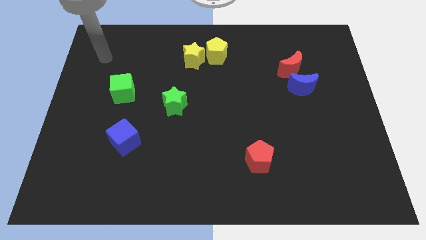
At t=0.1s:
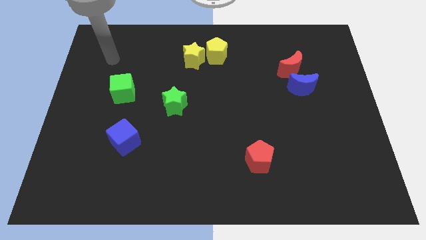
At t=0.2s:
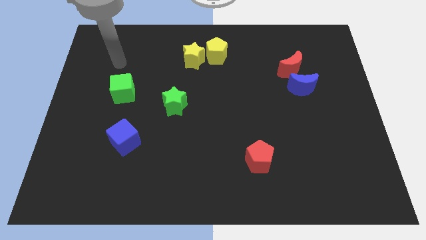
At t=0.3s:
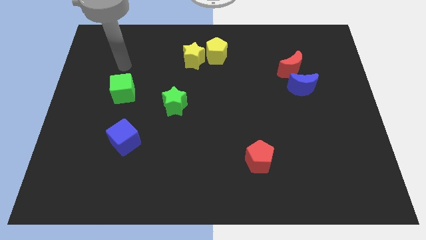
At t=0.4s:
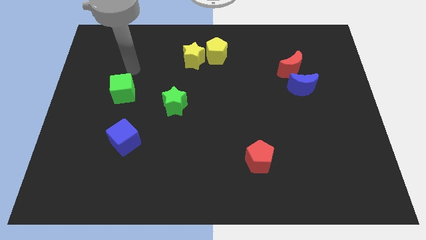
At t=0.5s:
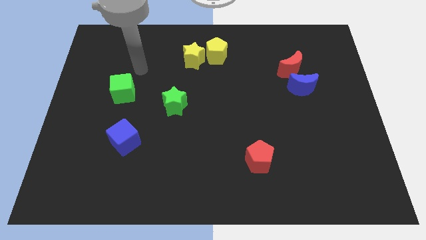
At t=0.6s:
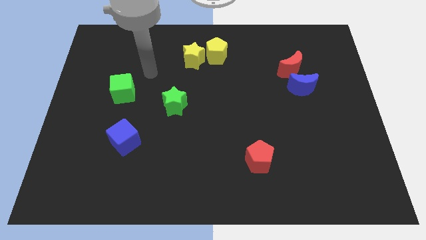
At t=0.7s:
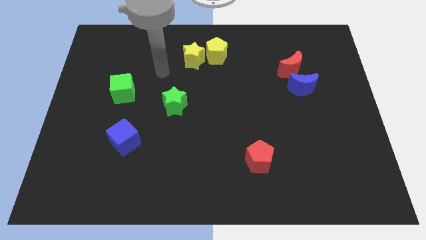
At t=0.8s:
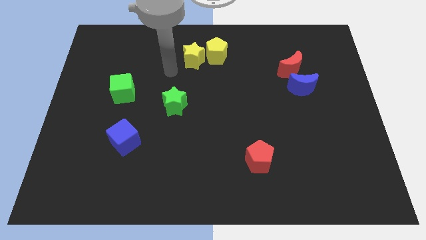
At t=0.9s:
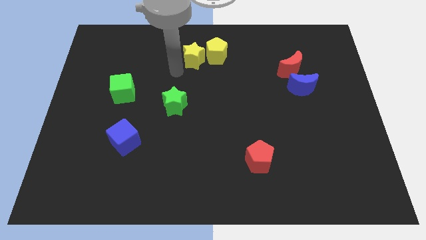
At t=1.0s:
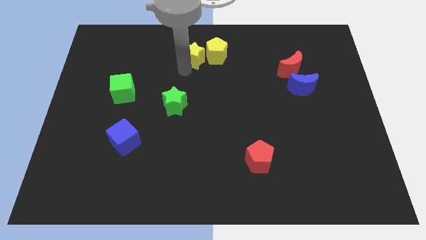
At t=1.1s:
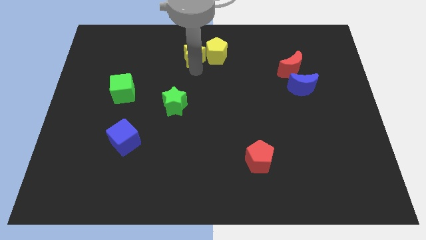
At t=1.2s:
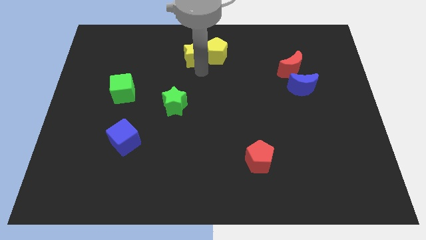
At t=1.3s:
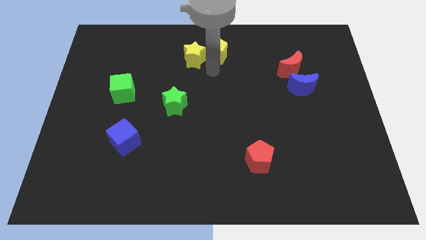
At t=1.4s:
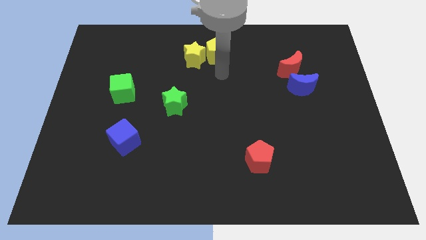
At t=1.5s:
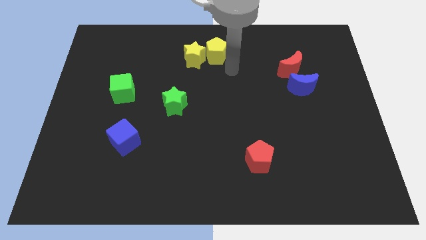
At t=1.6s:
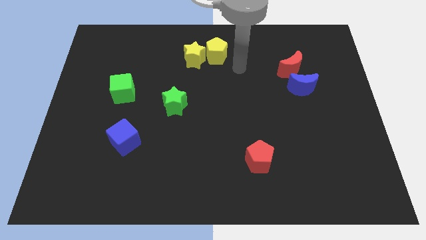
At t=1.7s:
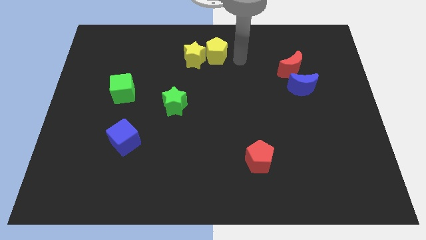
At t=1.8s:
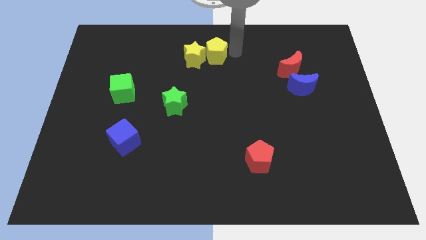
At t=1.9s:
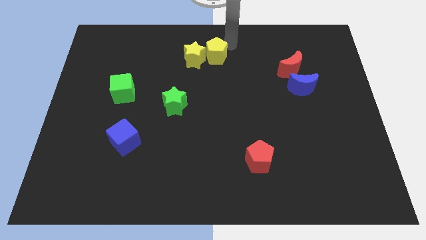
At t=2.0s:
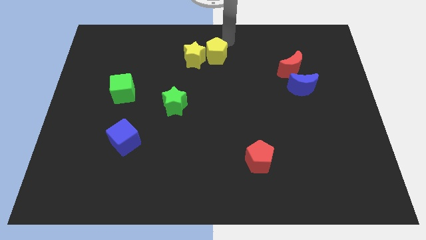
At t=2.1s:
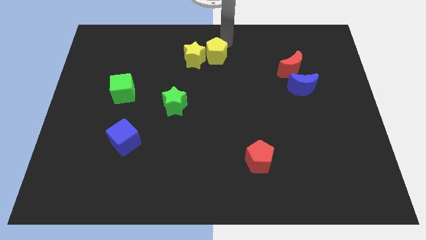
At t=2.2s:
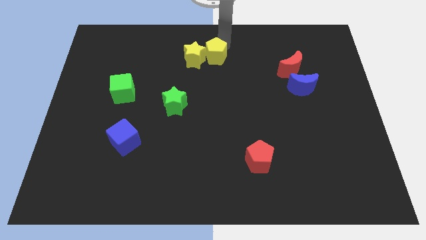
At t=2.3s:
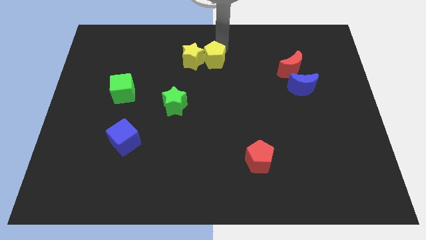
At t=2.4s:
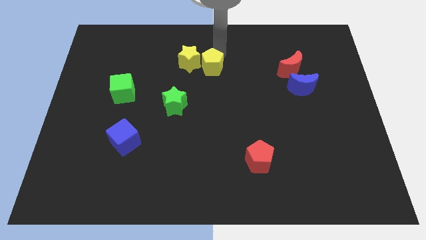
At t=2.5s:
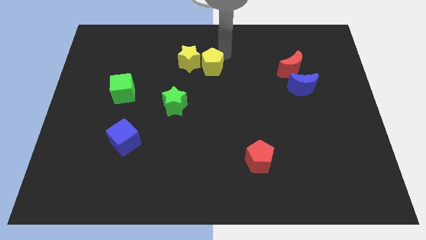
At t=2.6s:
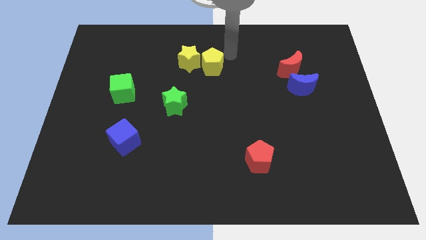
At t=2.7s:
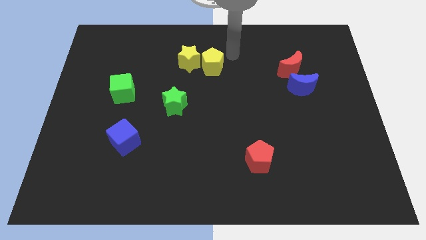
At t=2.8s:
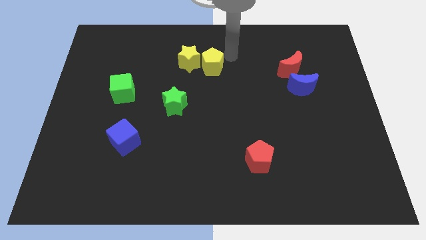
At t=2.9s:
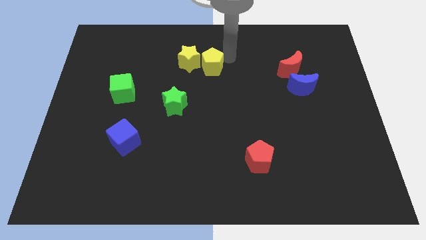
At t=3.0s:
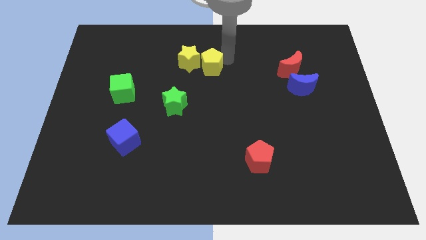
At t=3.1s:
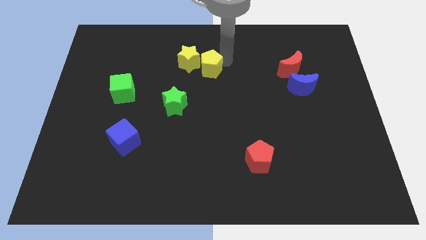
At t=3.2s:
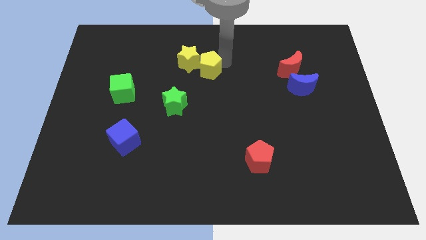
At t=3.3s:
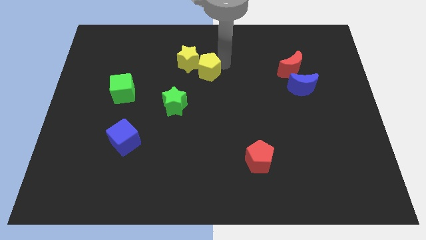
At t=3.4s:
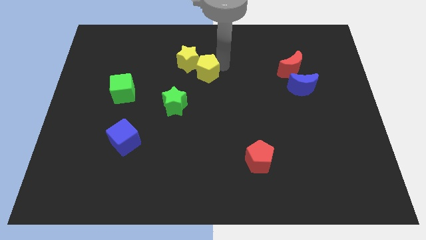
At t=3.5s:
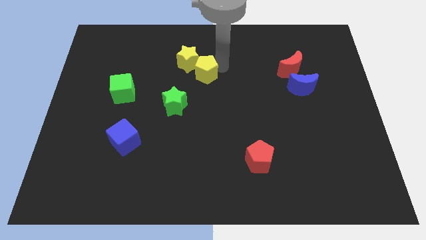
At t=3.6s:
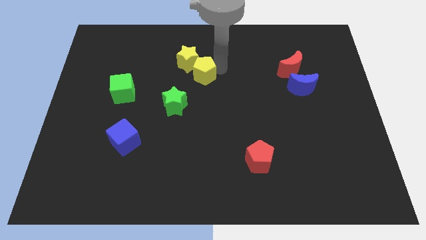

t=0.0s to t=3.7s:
push the yellow pentagon diagonally down and to the left a bit

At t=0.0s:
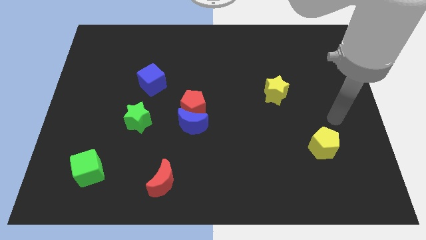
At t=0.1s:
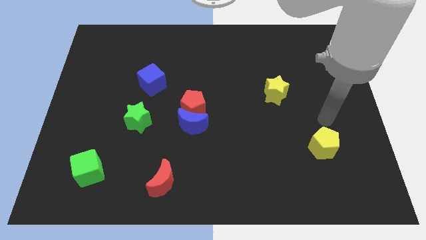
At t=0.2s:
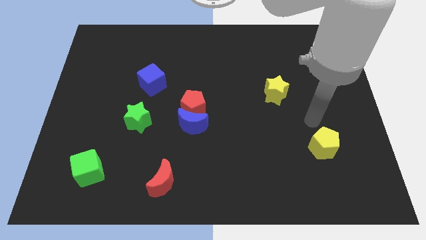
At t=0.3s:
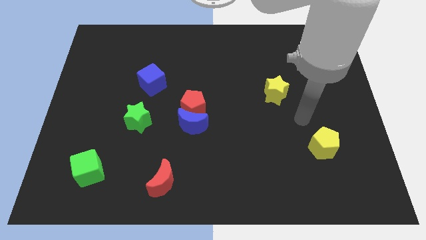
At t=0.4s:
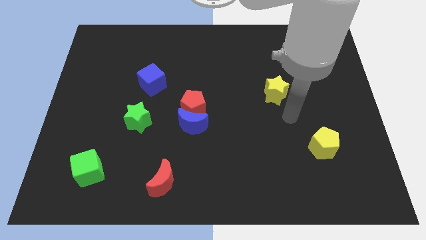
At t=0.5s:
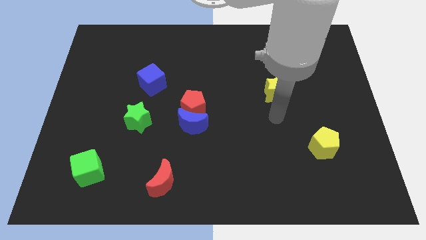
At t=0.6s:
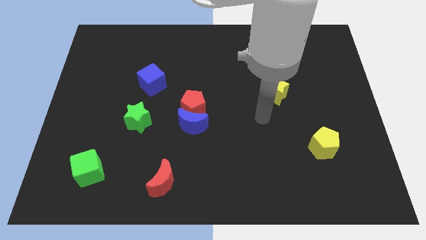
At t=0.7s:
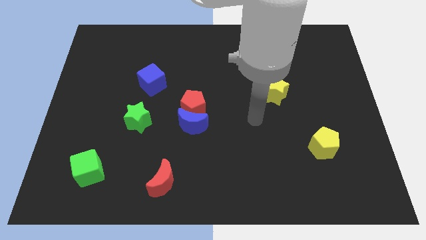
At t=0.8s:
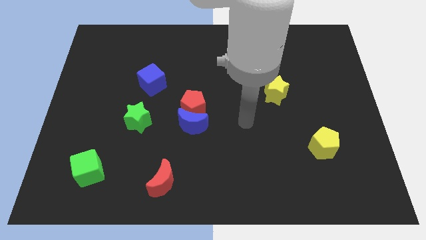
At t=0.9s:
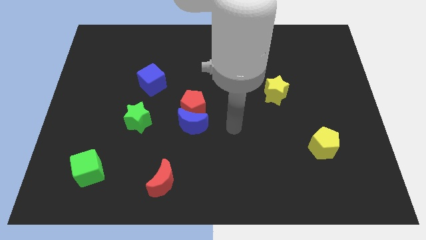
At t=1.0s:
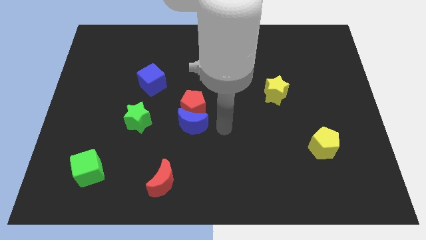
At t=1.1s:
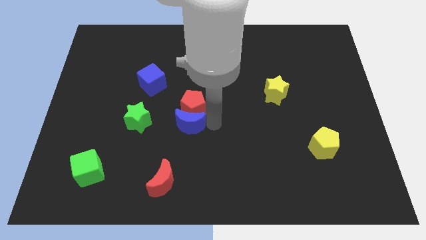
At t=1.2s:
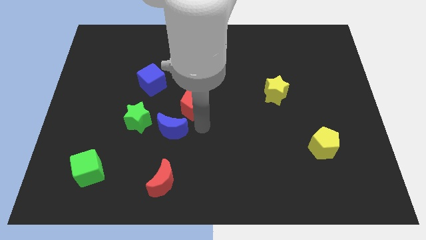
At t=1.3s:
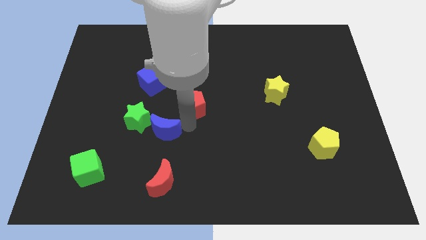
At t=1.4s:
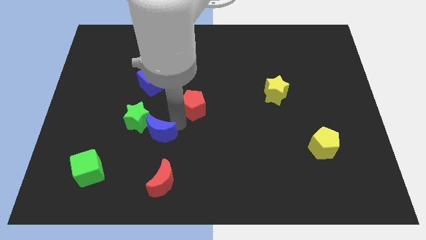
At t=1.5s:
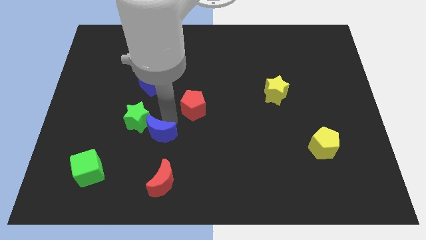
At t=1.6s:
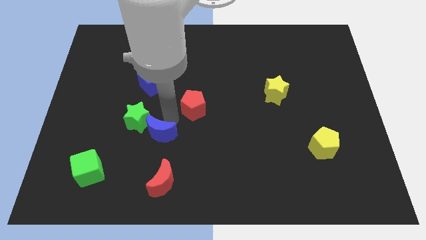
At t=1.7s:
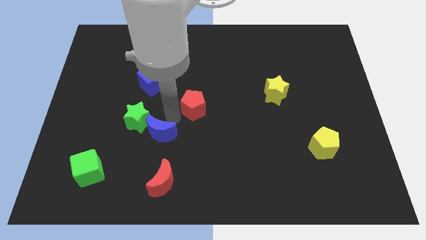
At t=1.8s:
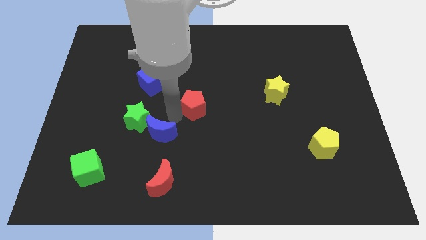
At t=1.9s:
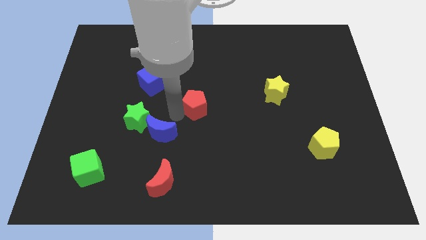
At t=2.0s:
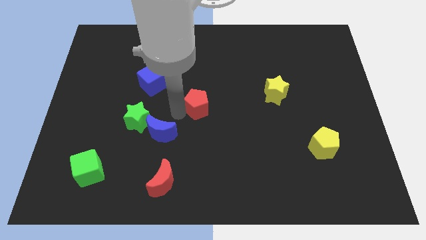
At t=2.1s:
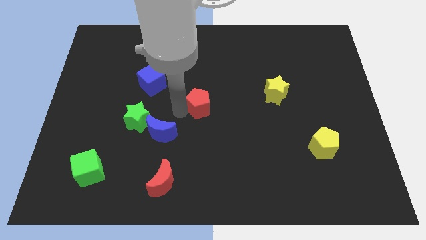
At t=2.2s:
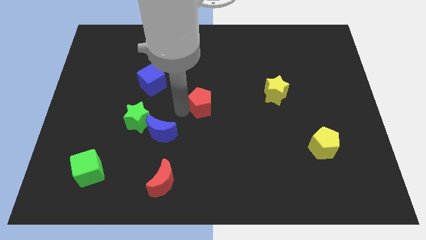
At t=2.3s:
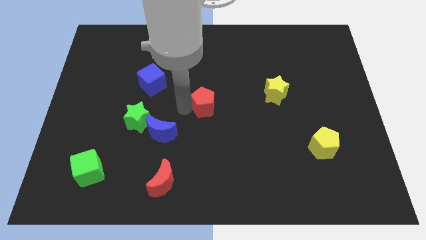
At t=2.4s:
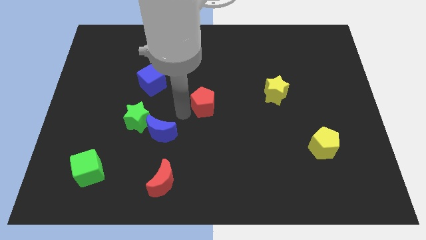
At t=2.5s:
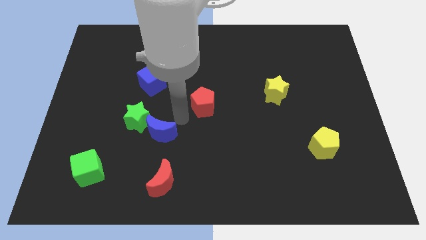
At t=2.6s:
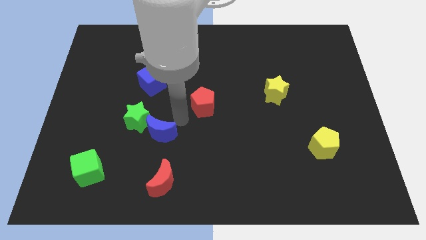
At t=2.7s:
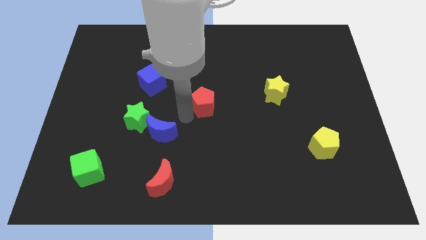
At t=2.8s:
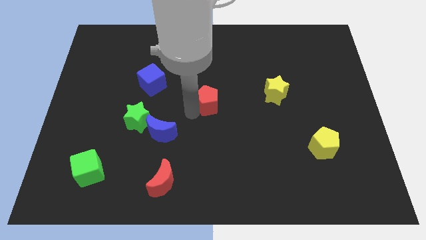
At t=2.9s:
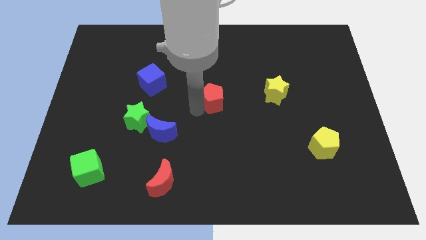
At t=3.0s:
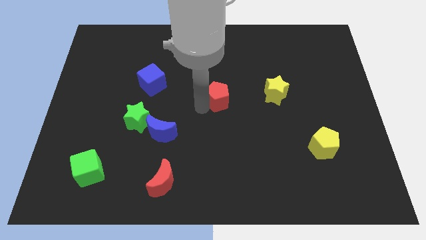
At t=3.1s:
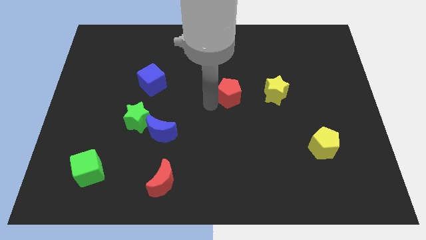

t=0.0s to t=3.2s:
move the red pentagon diagonally upwards and right somewhat

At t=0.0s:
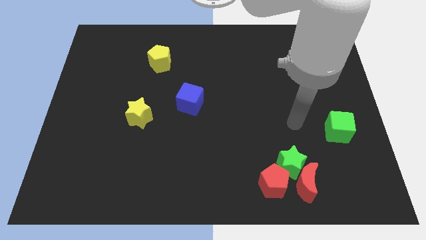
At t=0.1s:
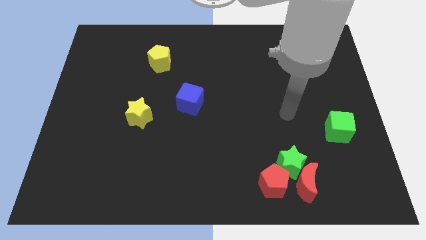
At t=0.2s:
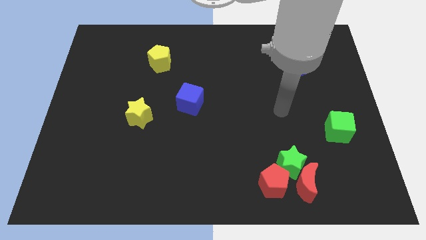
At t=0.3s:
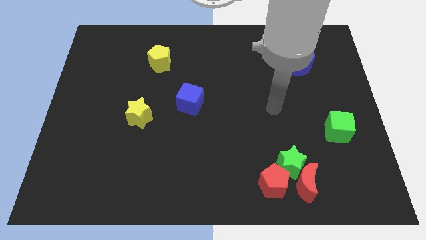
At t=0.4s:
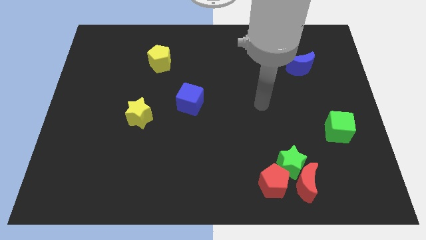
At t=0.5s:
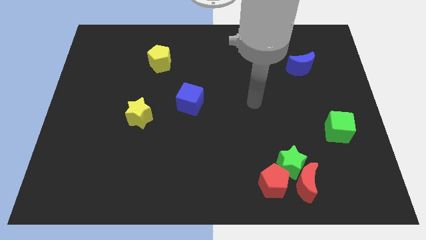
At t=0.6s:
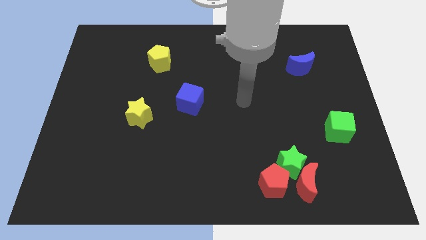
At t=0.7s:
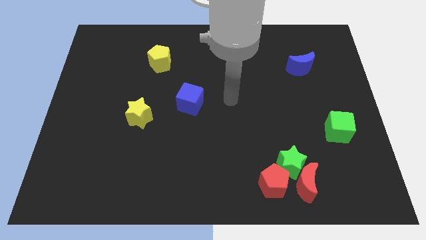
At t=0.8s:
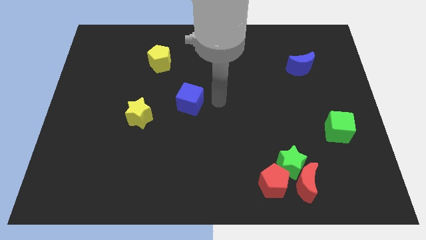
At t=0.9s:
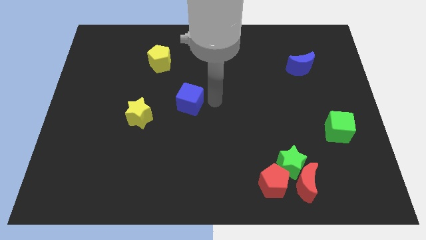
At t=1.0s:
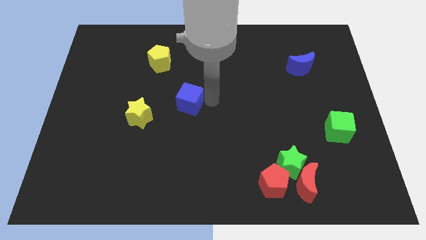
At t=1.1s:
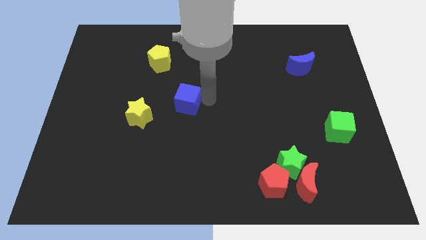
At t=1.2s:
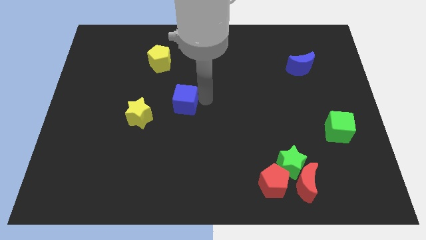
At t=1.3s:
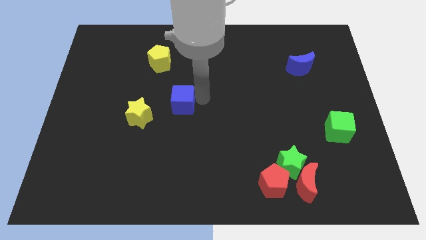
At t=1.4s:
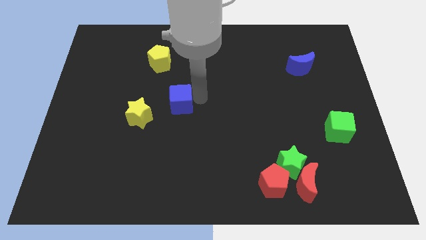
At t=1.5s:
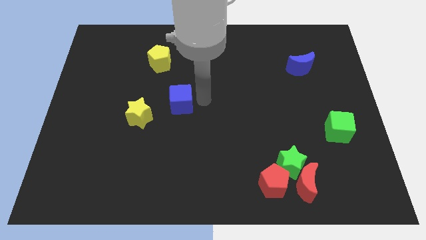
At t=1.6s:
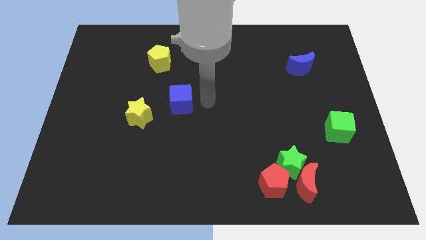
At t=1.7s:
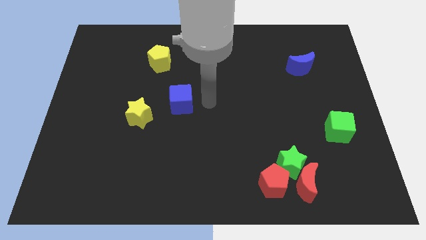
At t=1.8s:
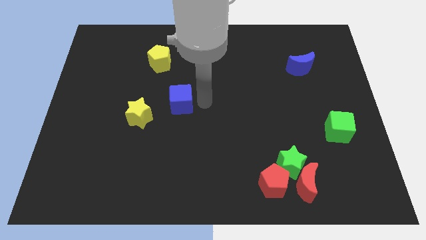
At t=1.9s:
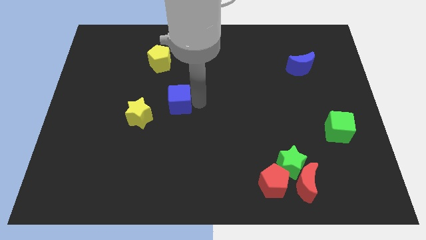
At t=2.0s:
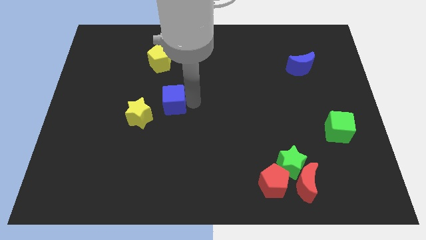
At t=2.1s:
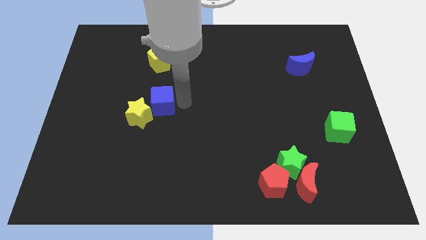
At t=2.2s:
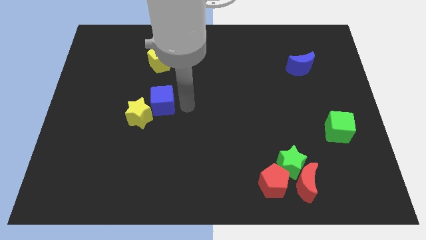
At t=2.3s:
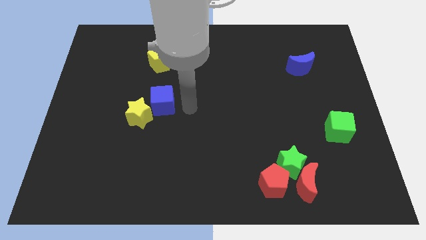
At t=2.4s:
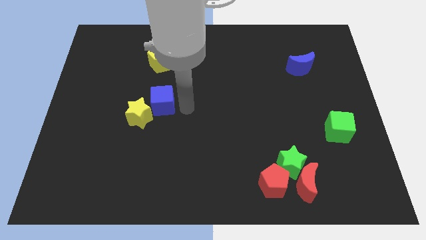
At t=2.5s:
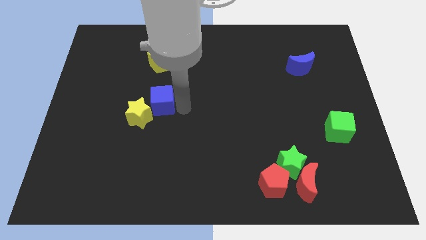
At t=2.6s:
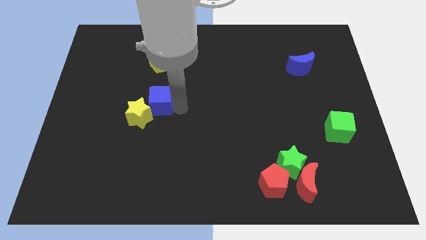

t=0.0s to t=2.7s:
slightly move the blue cube left
